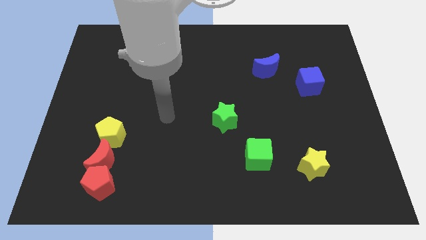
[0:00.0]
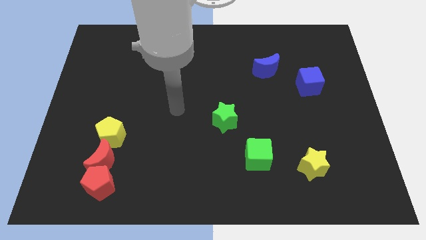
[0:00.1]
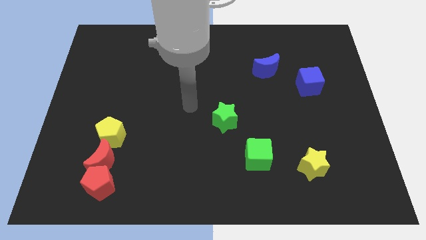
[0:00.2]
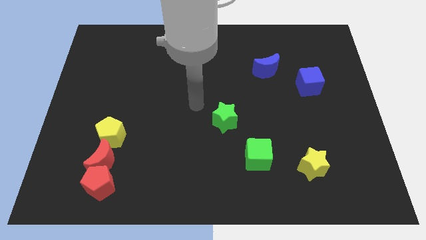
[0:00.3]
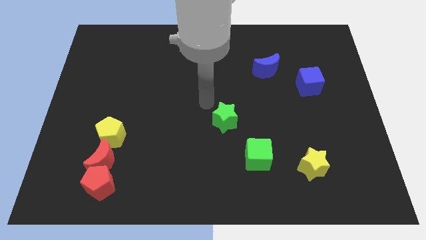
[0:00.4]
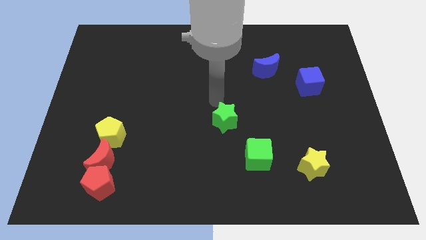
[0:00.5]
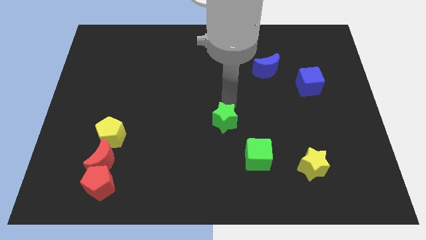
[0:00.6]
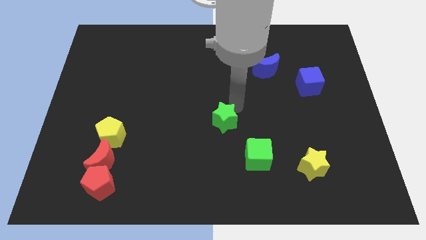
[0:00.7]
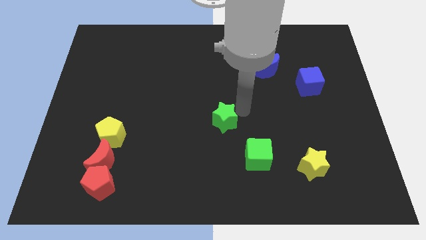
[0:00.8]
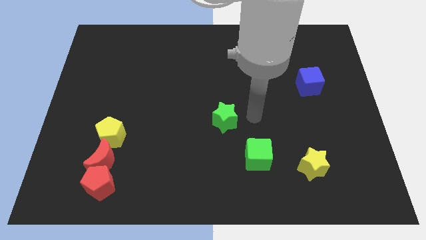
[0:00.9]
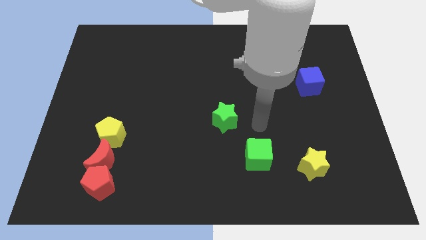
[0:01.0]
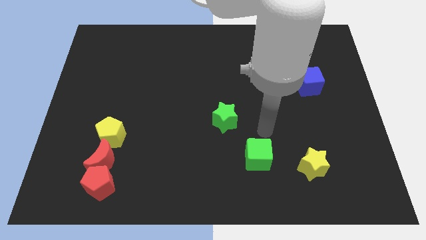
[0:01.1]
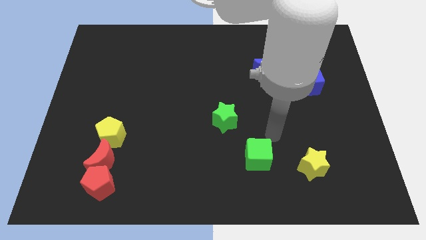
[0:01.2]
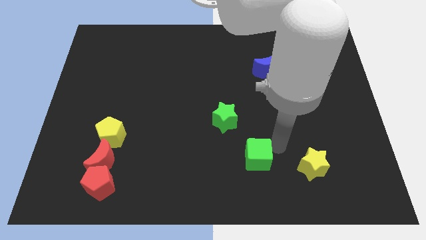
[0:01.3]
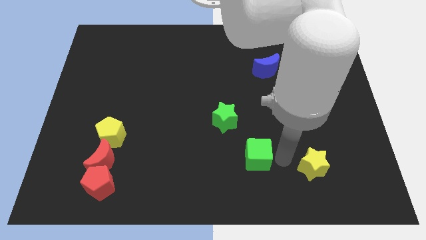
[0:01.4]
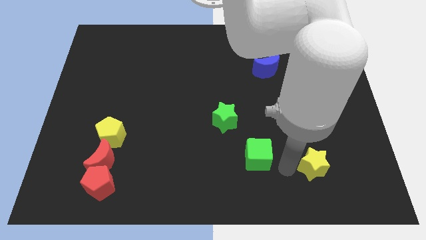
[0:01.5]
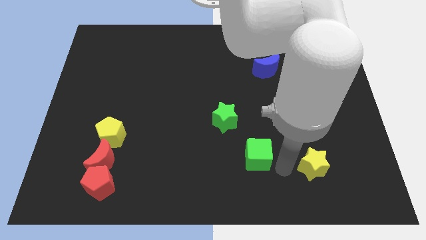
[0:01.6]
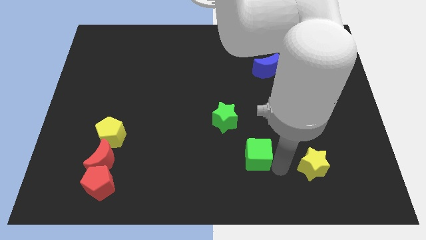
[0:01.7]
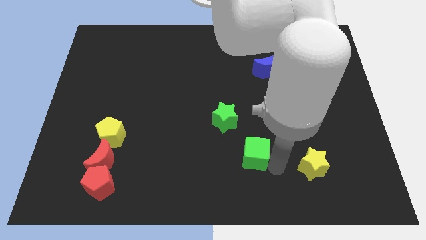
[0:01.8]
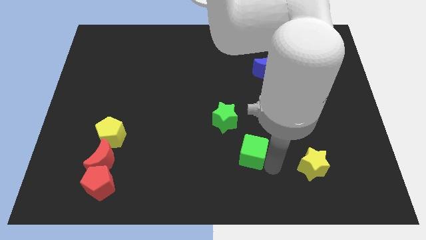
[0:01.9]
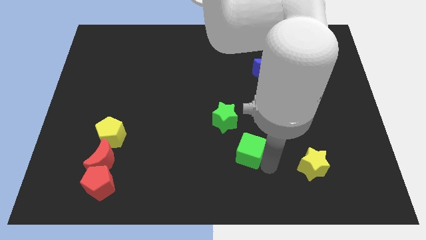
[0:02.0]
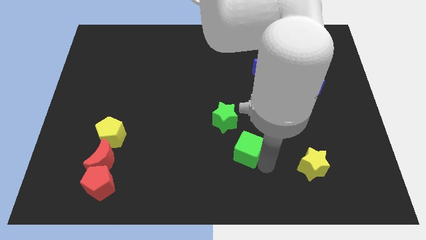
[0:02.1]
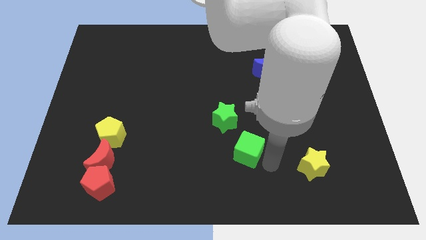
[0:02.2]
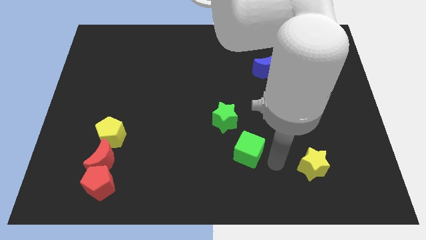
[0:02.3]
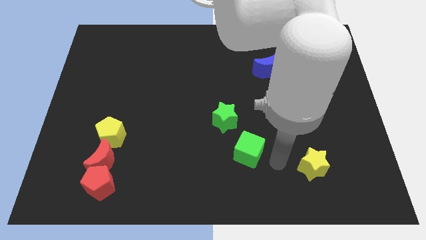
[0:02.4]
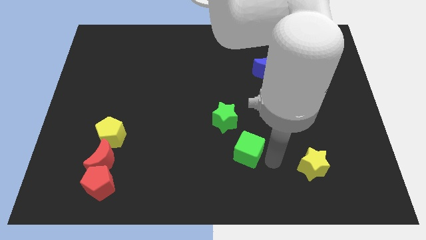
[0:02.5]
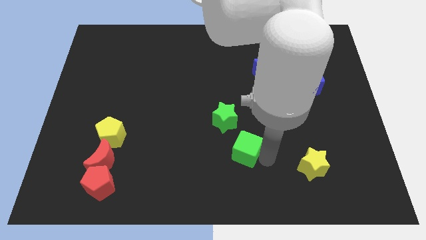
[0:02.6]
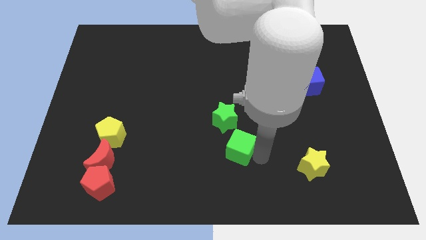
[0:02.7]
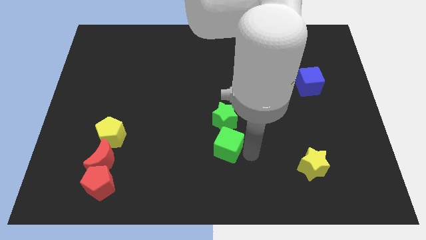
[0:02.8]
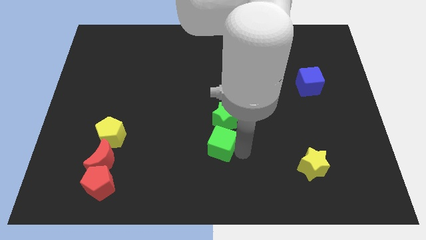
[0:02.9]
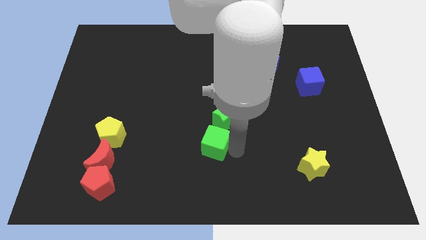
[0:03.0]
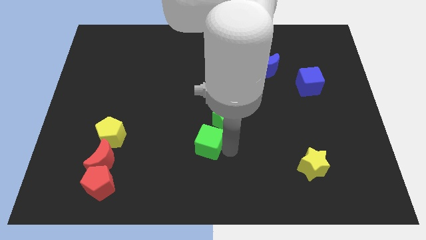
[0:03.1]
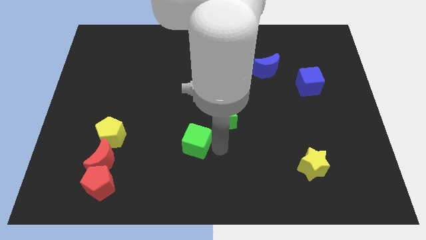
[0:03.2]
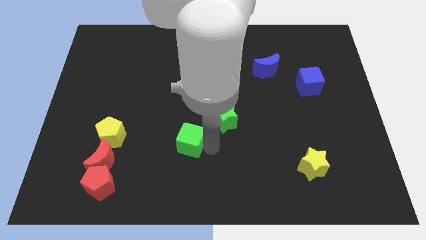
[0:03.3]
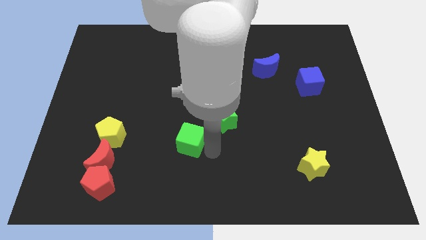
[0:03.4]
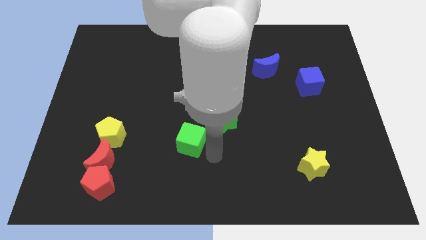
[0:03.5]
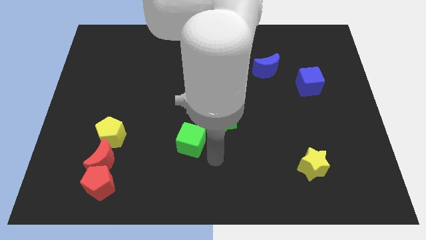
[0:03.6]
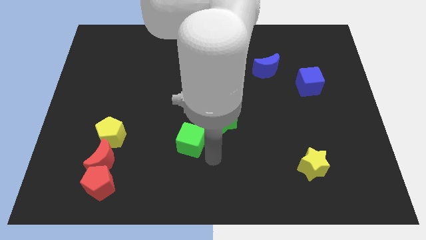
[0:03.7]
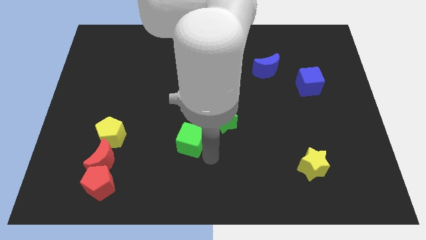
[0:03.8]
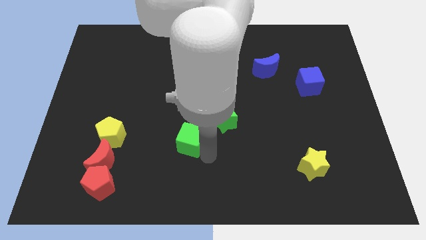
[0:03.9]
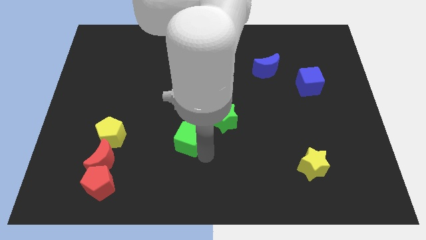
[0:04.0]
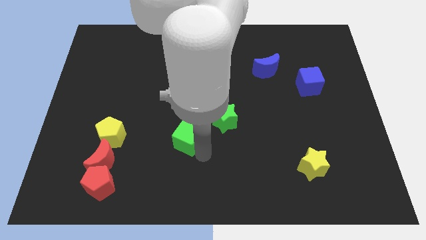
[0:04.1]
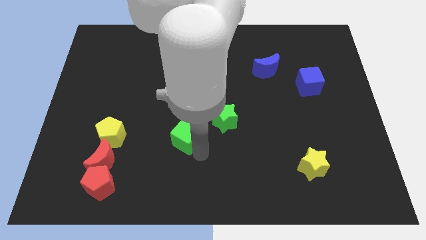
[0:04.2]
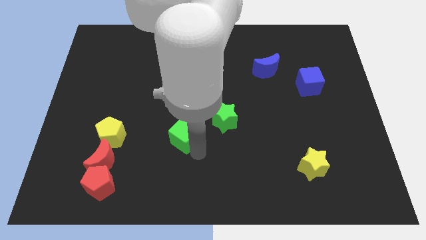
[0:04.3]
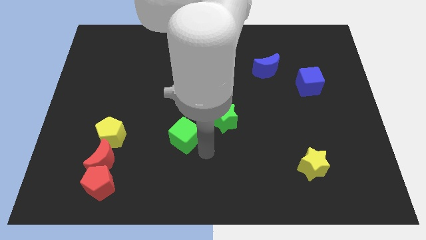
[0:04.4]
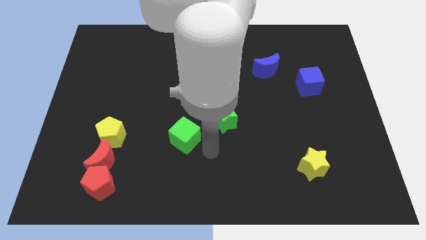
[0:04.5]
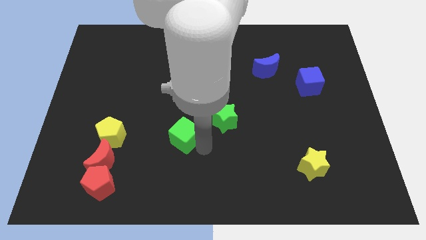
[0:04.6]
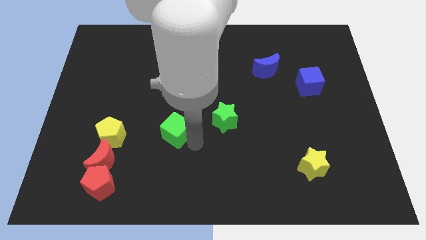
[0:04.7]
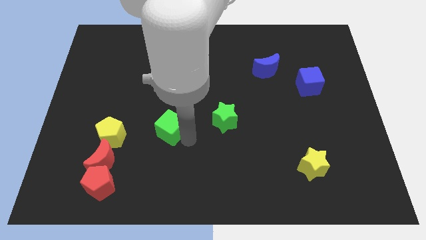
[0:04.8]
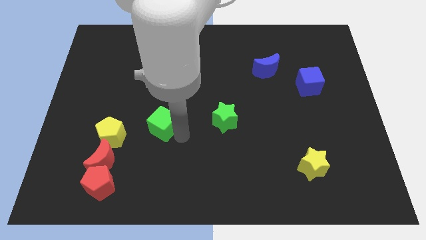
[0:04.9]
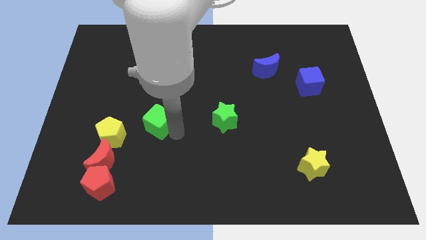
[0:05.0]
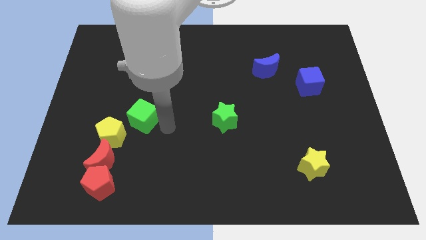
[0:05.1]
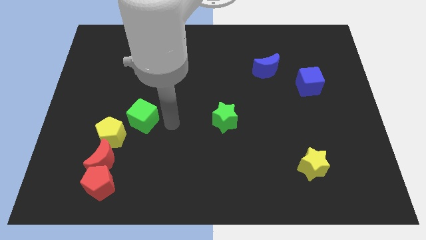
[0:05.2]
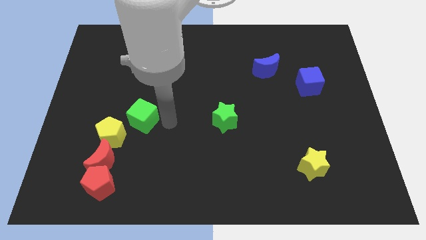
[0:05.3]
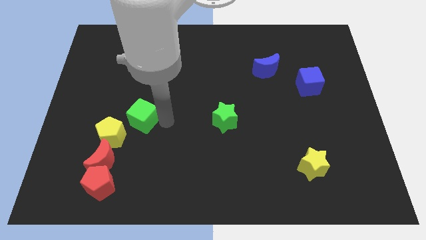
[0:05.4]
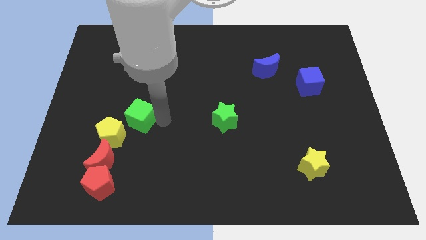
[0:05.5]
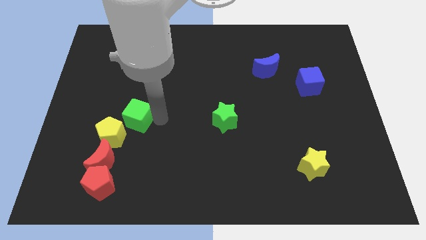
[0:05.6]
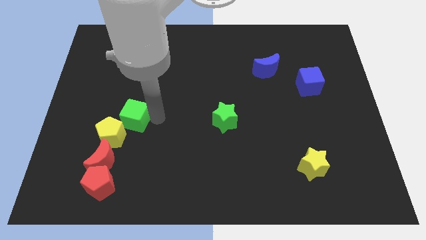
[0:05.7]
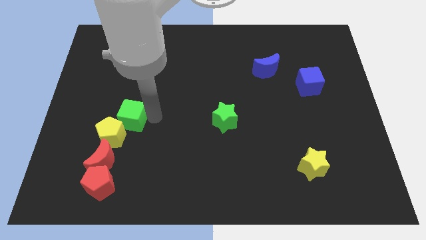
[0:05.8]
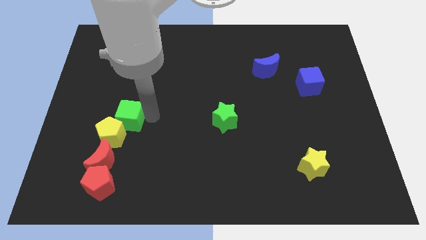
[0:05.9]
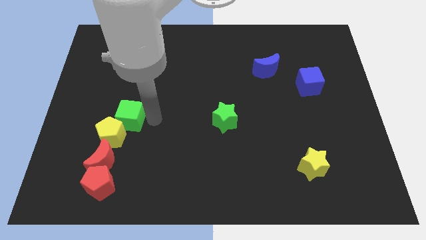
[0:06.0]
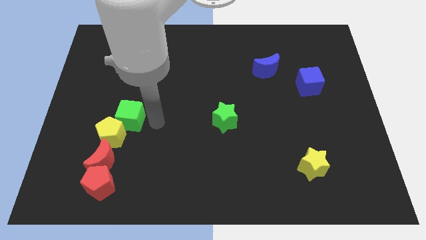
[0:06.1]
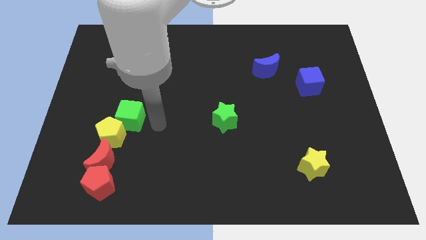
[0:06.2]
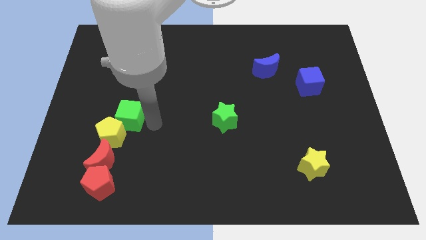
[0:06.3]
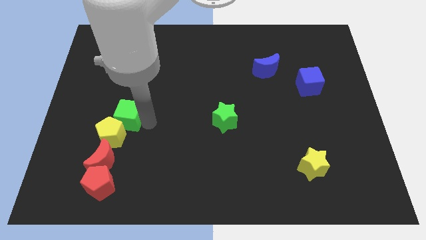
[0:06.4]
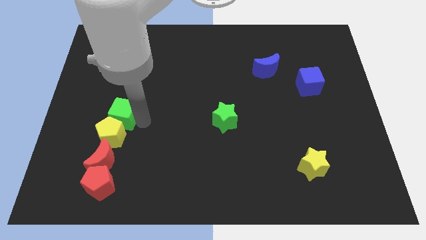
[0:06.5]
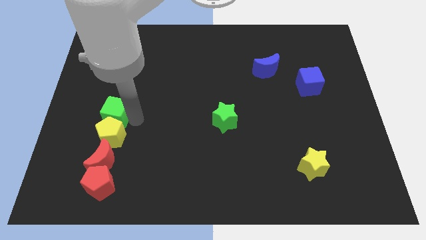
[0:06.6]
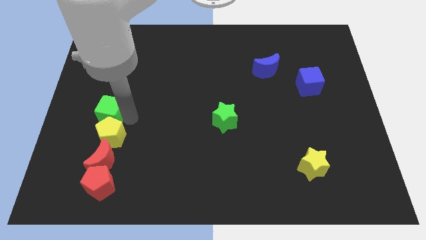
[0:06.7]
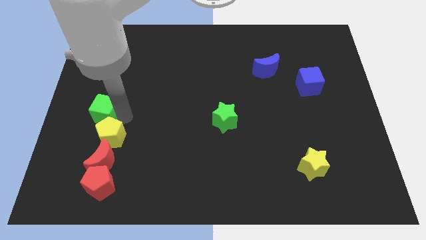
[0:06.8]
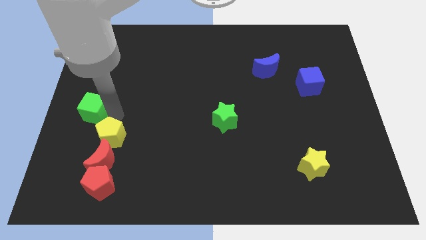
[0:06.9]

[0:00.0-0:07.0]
push the green cube to the left side of the board
